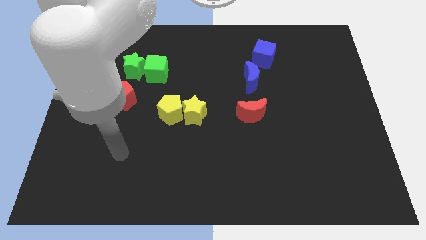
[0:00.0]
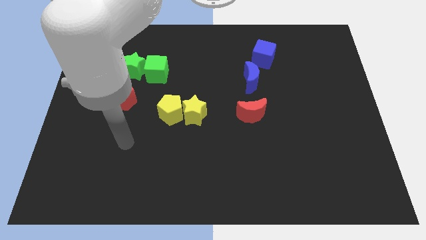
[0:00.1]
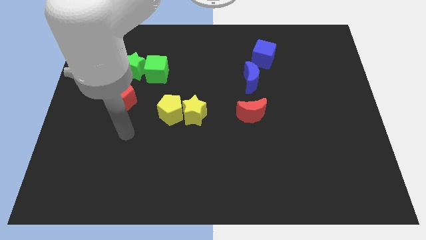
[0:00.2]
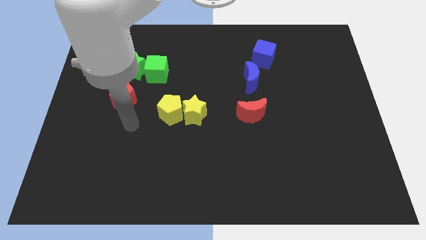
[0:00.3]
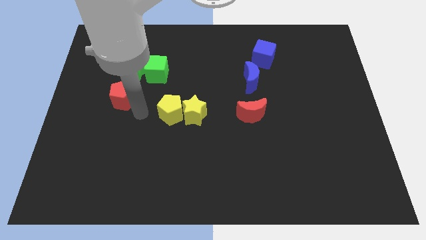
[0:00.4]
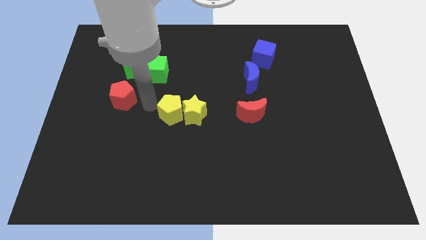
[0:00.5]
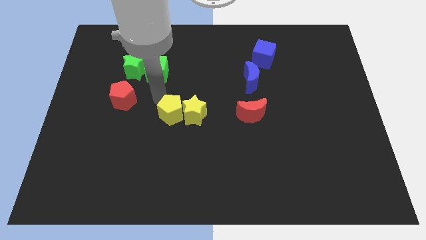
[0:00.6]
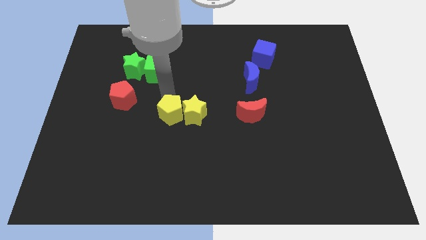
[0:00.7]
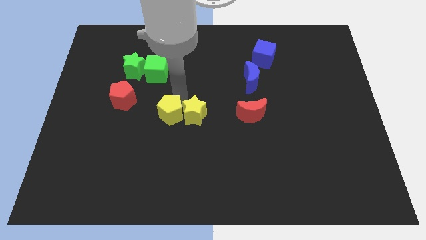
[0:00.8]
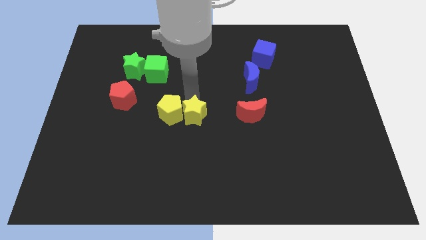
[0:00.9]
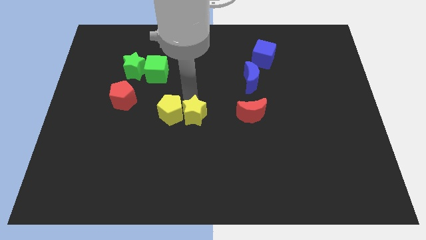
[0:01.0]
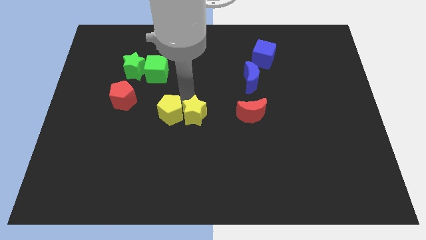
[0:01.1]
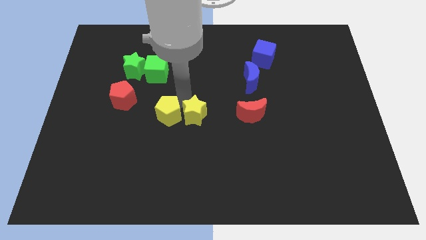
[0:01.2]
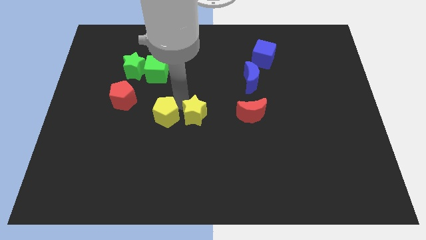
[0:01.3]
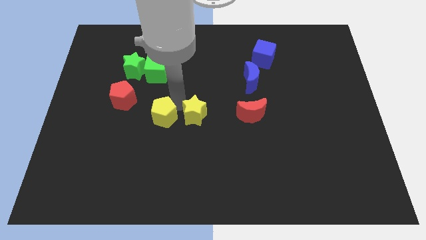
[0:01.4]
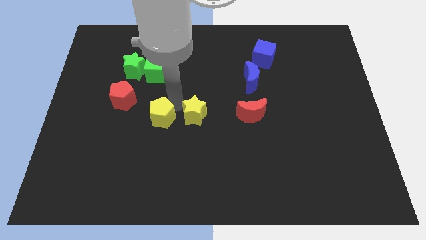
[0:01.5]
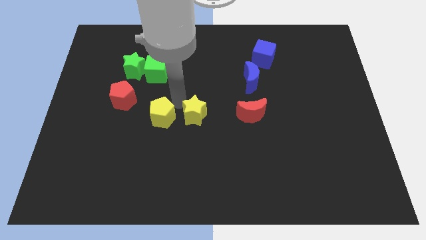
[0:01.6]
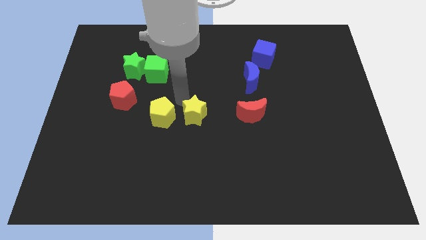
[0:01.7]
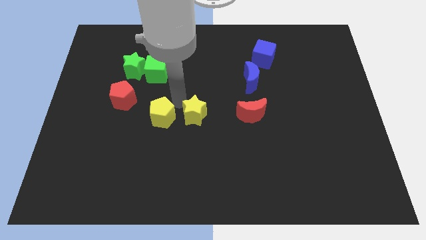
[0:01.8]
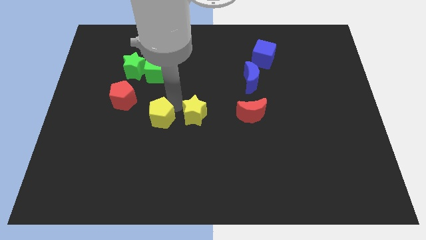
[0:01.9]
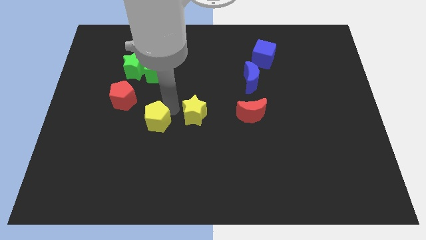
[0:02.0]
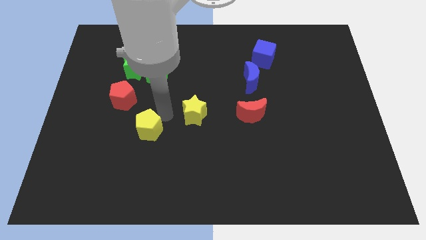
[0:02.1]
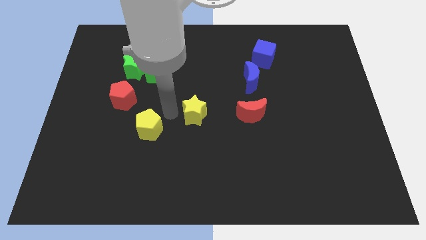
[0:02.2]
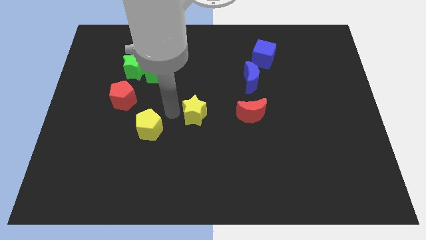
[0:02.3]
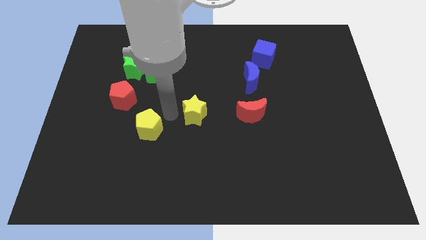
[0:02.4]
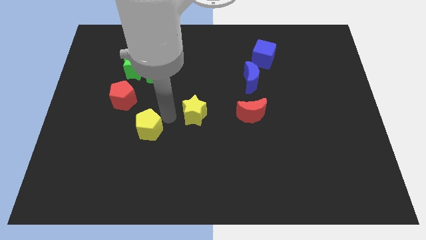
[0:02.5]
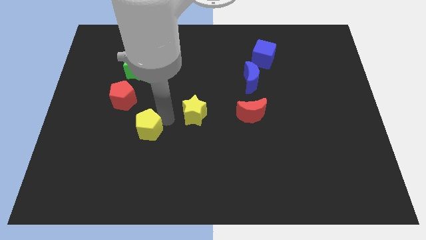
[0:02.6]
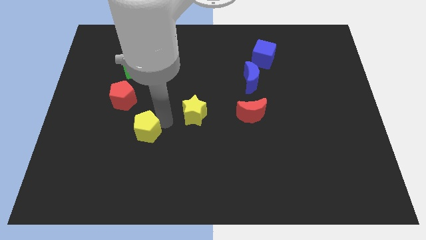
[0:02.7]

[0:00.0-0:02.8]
slightly move the yellow pentagon downwards and then left

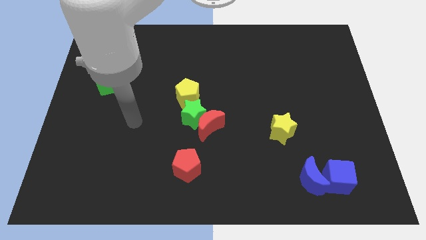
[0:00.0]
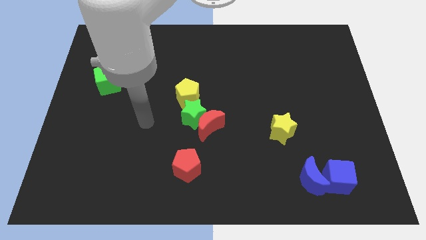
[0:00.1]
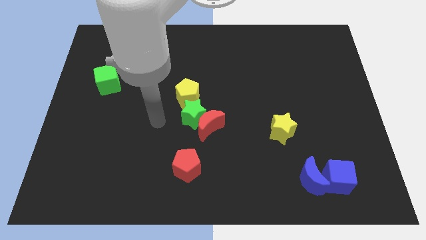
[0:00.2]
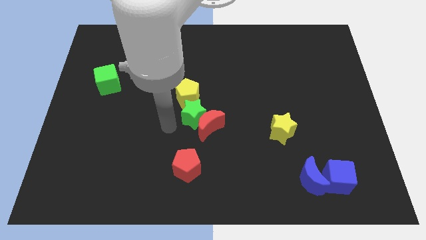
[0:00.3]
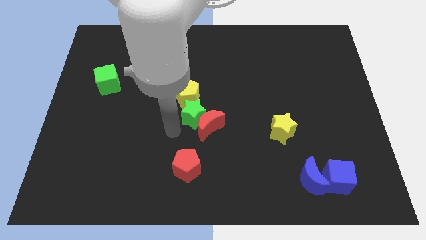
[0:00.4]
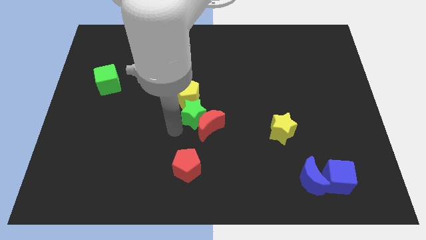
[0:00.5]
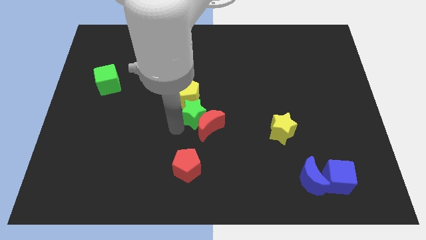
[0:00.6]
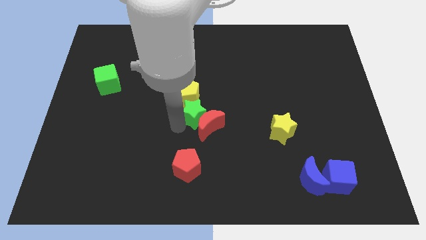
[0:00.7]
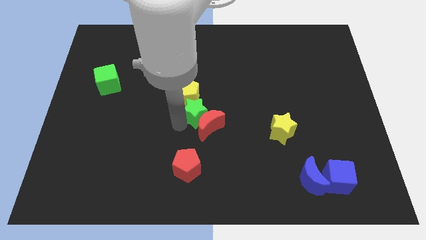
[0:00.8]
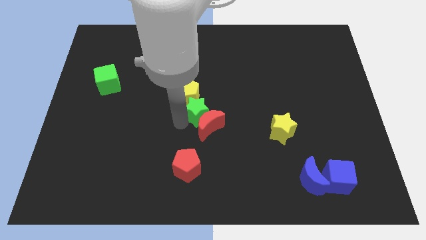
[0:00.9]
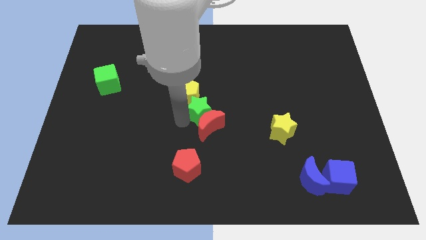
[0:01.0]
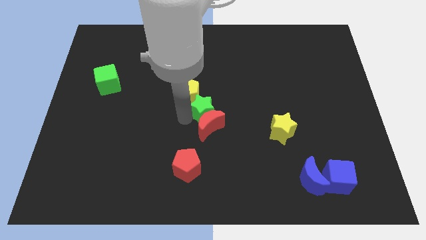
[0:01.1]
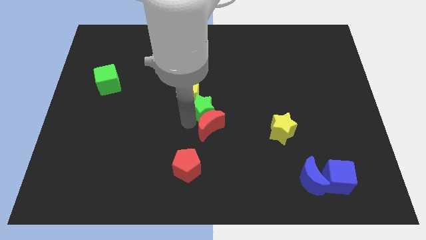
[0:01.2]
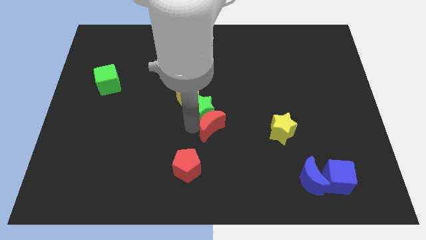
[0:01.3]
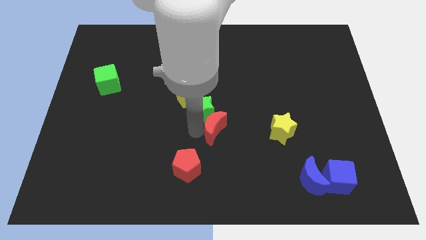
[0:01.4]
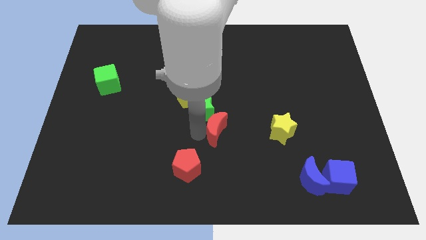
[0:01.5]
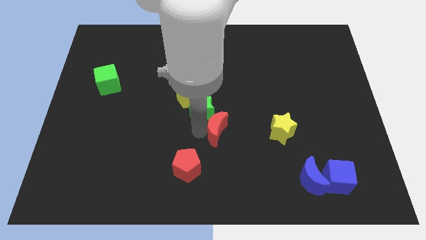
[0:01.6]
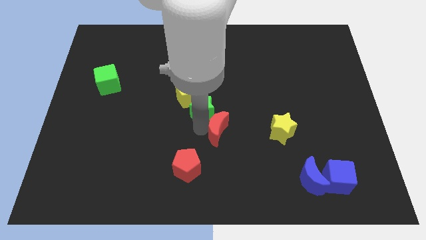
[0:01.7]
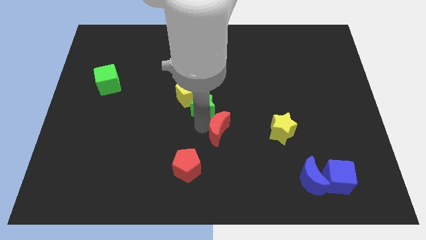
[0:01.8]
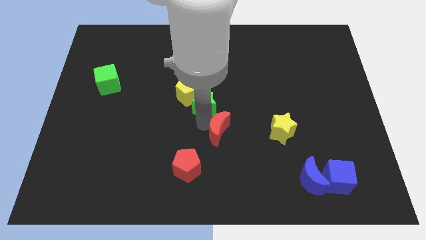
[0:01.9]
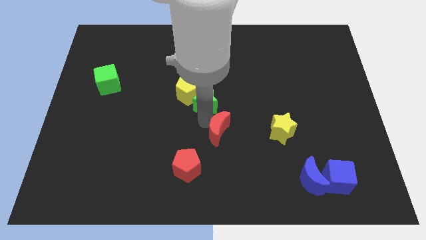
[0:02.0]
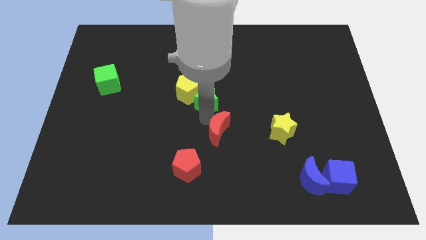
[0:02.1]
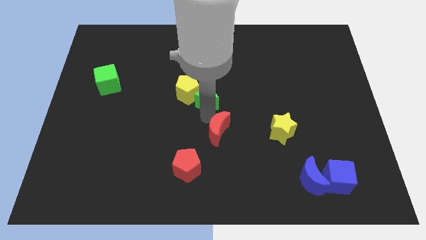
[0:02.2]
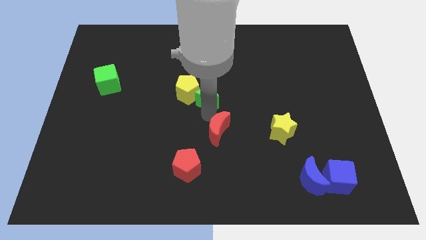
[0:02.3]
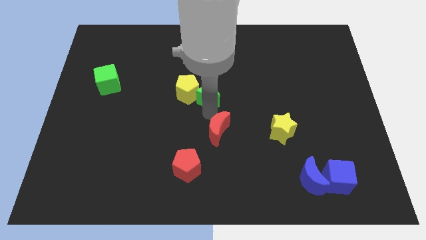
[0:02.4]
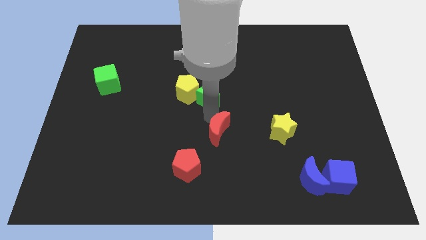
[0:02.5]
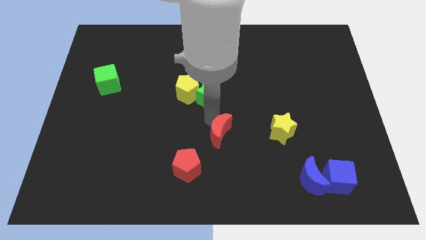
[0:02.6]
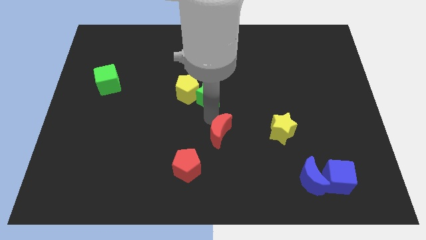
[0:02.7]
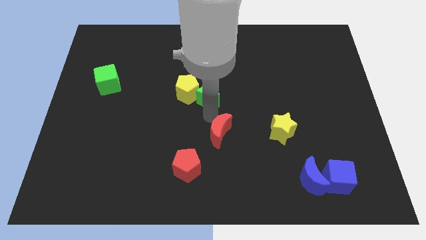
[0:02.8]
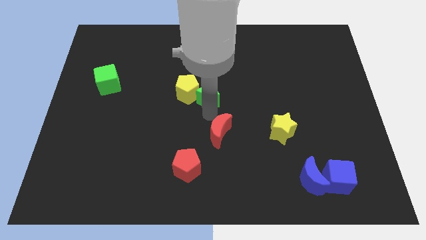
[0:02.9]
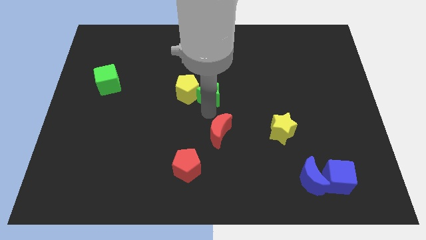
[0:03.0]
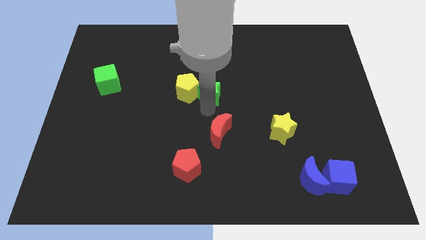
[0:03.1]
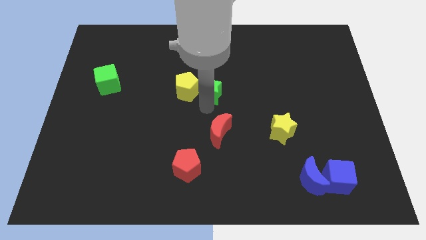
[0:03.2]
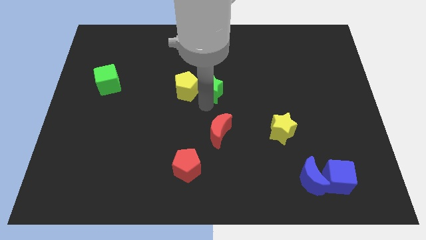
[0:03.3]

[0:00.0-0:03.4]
push the green star a little bit upwards

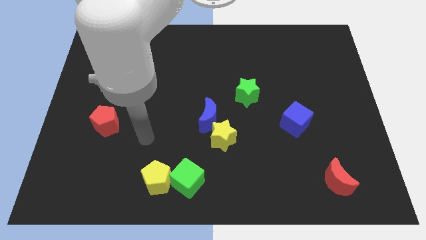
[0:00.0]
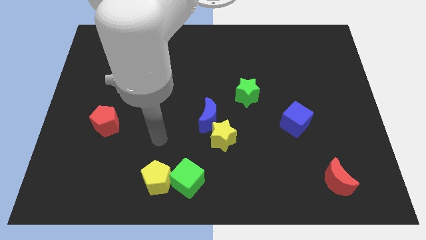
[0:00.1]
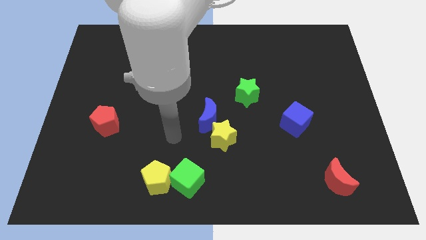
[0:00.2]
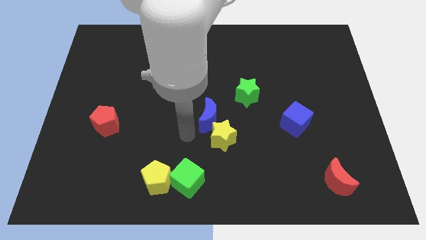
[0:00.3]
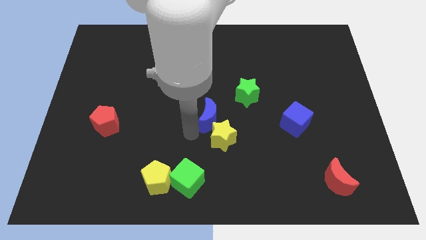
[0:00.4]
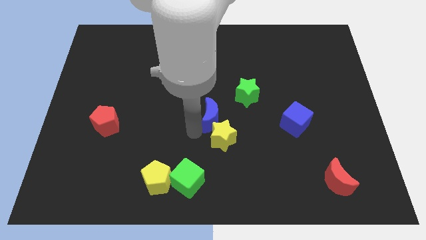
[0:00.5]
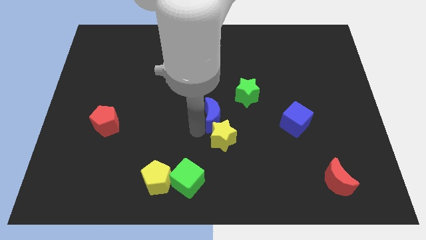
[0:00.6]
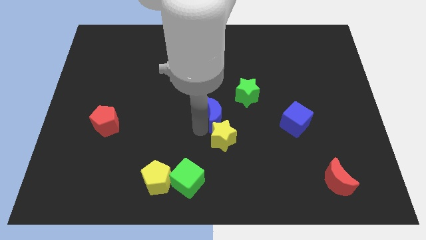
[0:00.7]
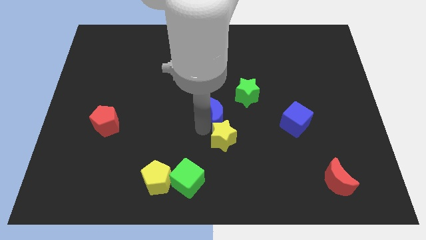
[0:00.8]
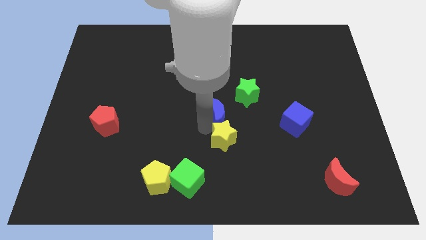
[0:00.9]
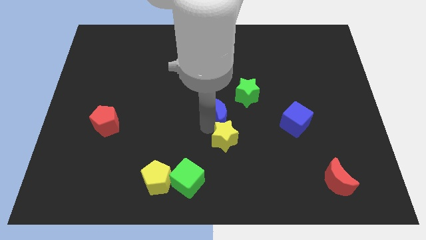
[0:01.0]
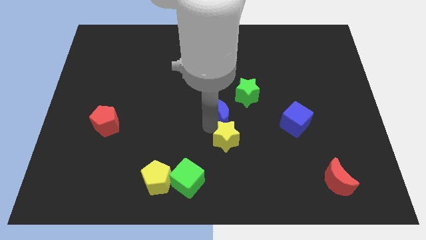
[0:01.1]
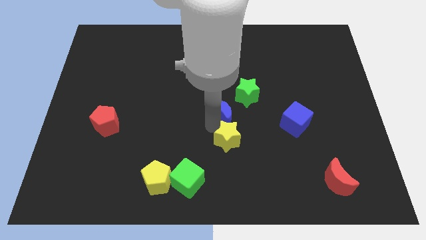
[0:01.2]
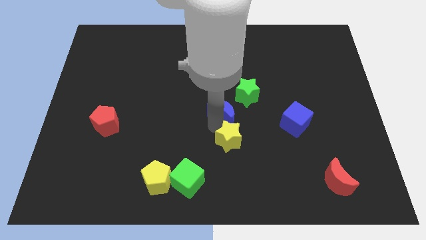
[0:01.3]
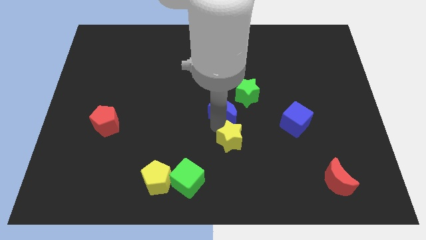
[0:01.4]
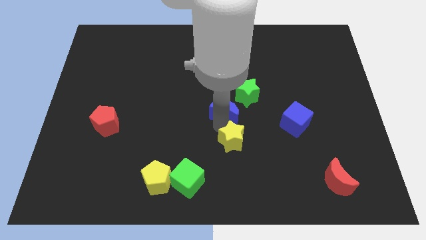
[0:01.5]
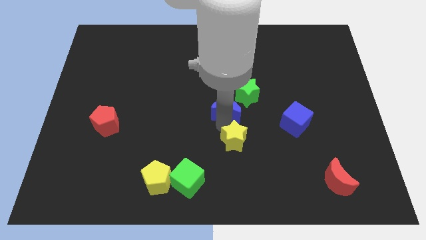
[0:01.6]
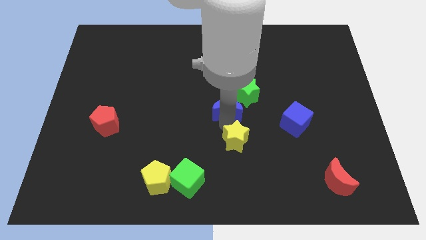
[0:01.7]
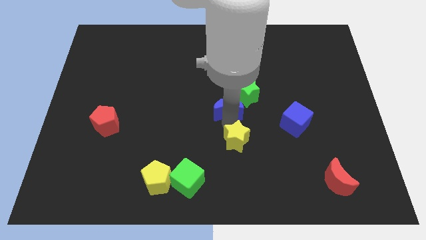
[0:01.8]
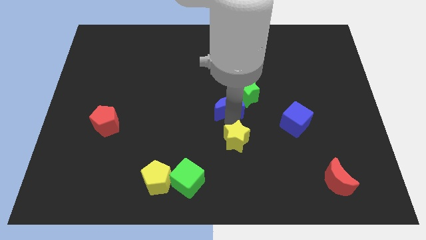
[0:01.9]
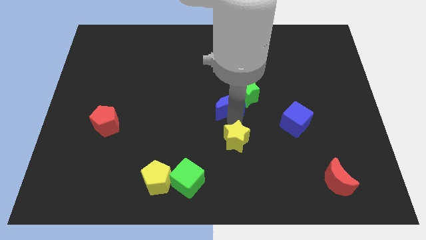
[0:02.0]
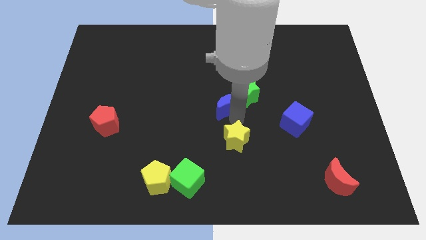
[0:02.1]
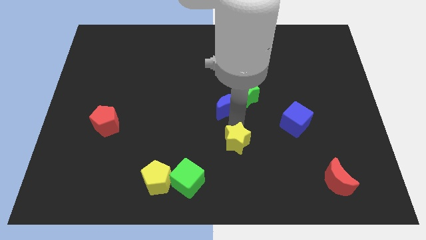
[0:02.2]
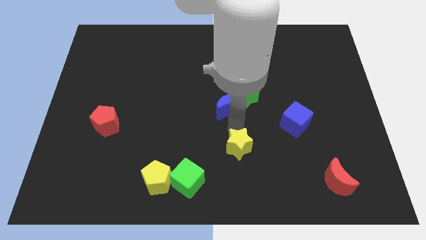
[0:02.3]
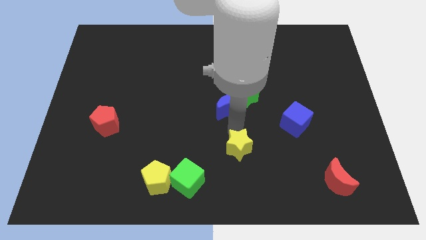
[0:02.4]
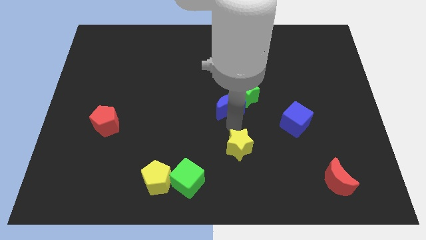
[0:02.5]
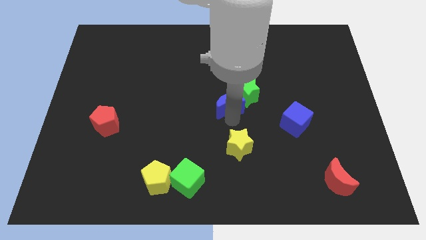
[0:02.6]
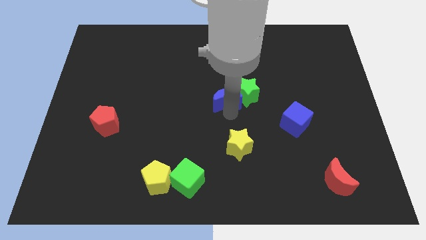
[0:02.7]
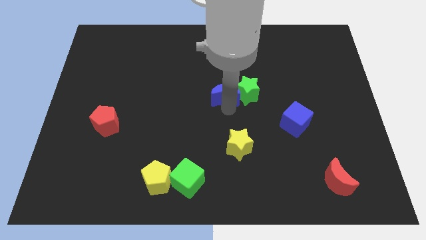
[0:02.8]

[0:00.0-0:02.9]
slide the blue moon upwards and right a bit
